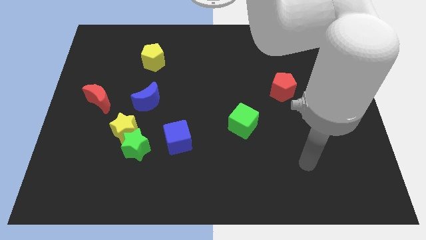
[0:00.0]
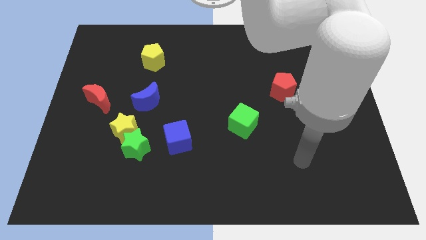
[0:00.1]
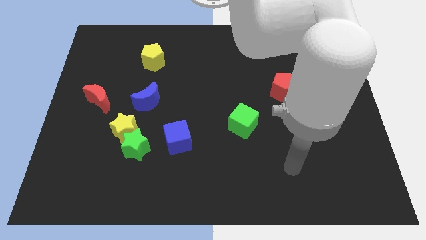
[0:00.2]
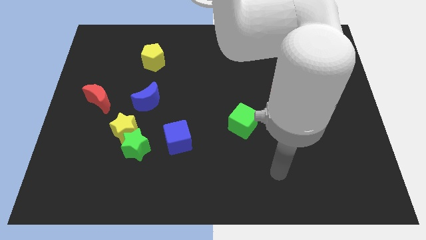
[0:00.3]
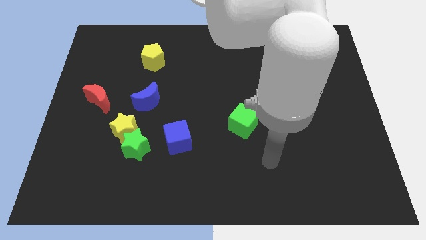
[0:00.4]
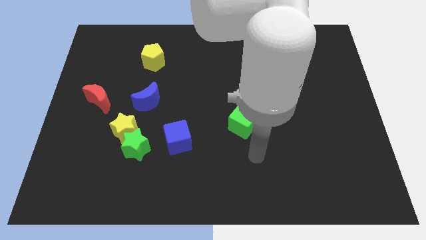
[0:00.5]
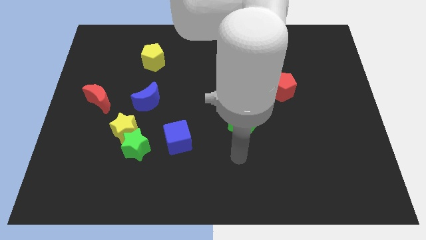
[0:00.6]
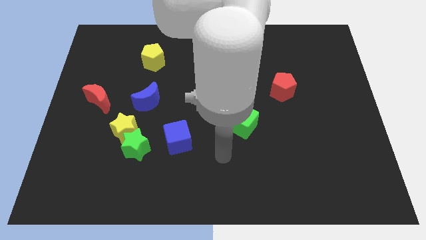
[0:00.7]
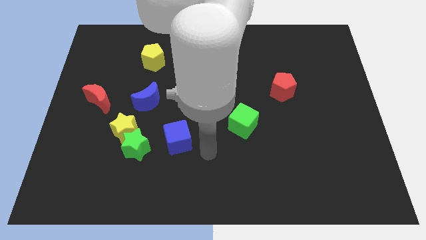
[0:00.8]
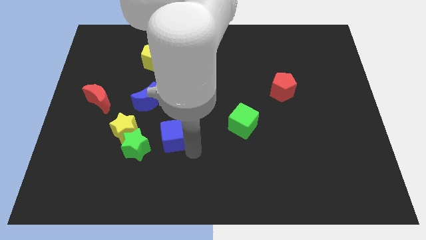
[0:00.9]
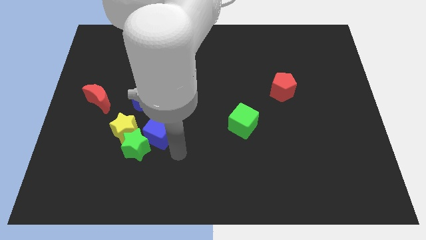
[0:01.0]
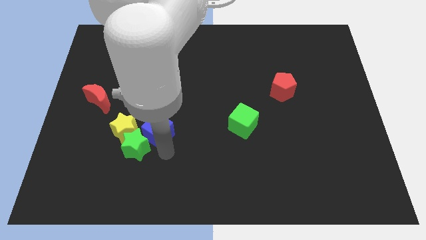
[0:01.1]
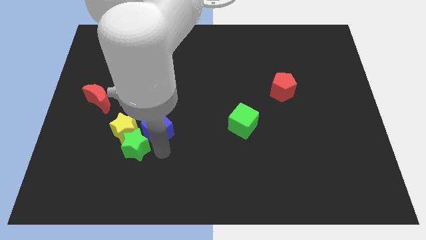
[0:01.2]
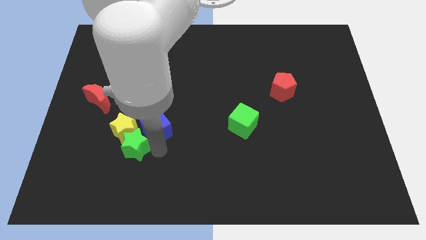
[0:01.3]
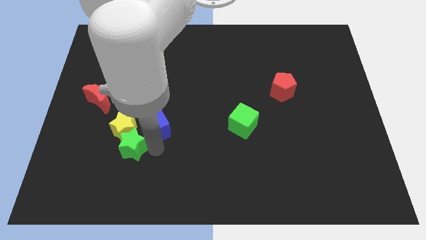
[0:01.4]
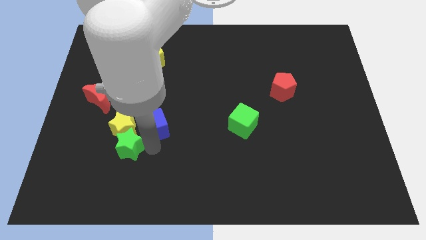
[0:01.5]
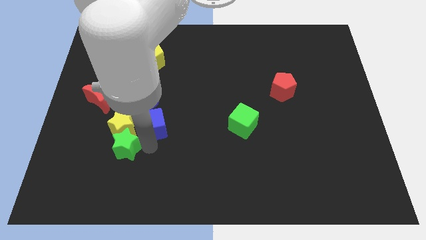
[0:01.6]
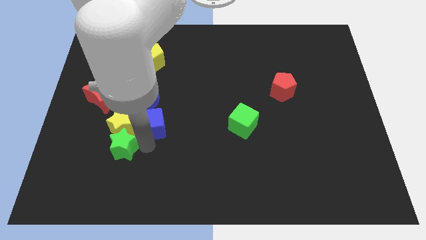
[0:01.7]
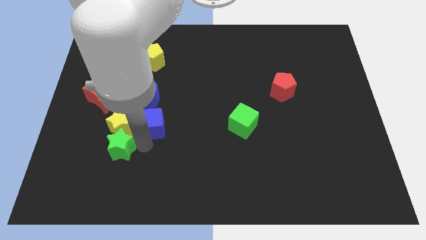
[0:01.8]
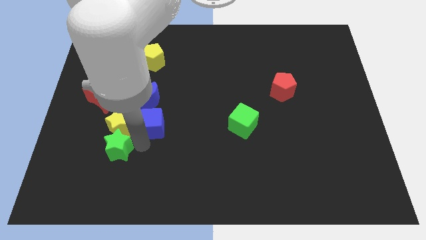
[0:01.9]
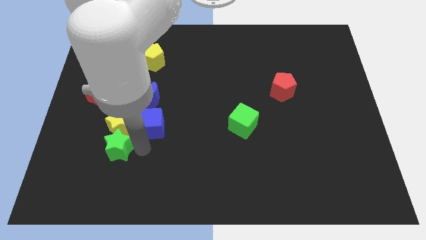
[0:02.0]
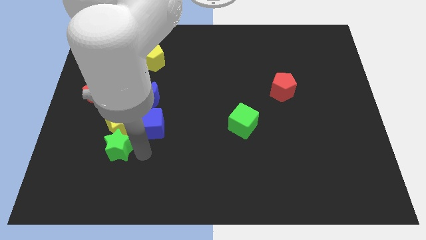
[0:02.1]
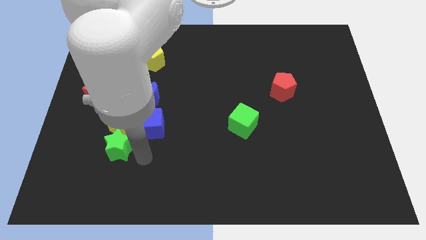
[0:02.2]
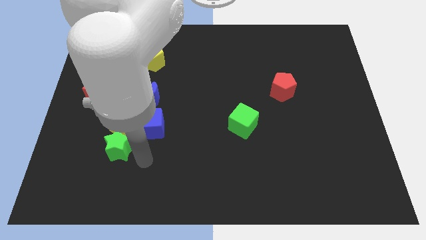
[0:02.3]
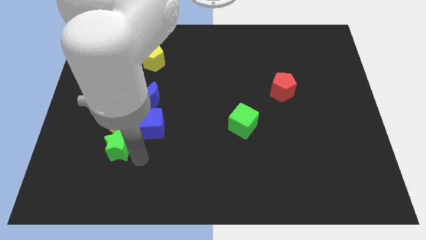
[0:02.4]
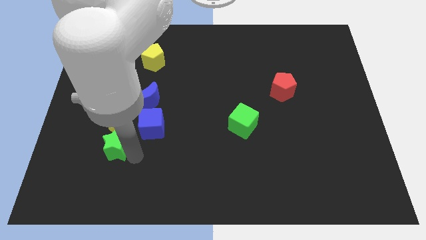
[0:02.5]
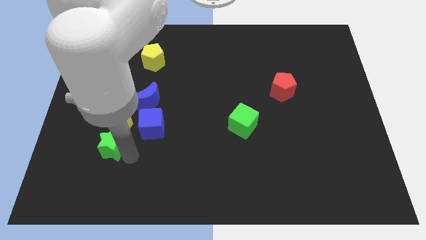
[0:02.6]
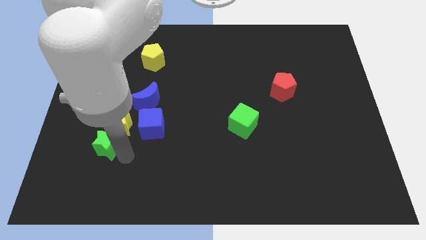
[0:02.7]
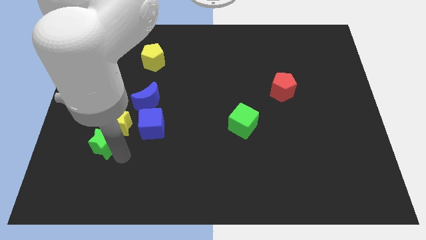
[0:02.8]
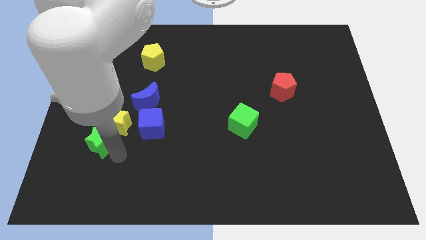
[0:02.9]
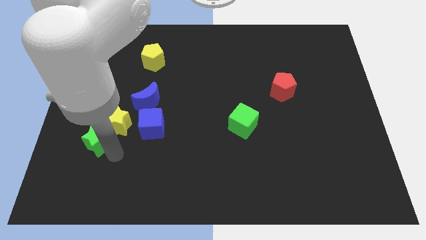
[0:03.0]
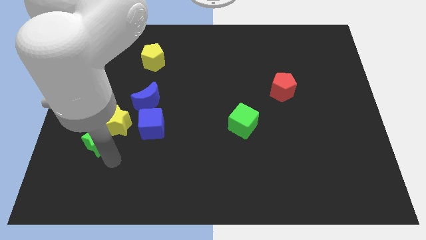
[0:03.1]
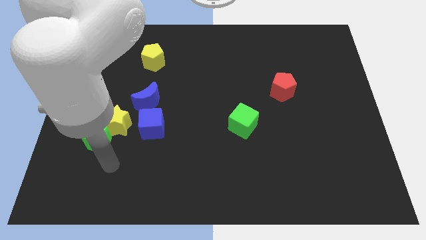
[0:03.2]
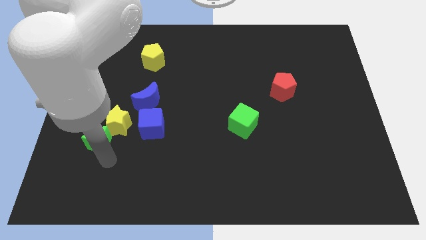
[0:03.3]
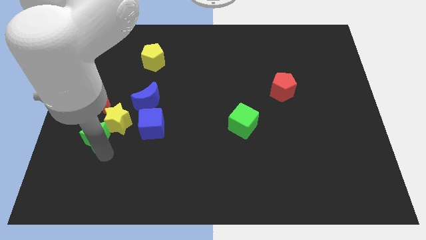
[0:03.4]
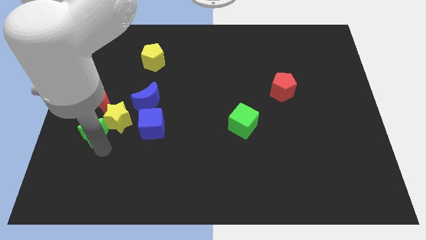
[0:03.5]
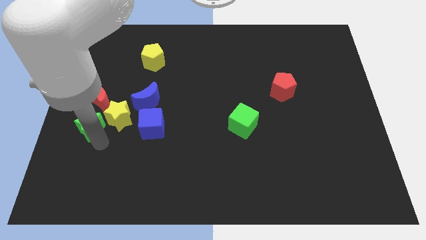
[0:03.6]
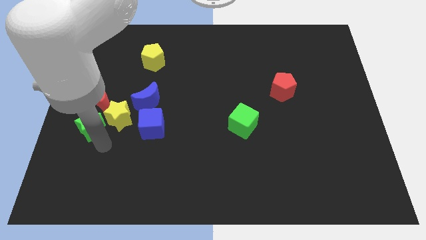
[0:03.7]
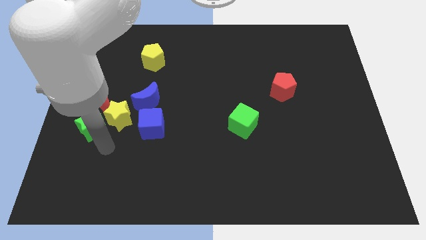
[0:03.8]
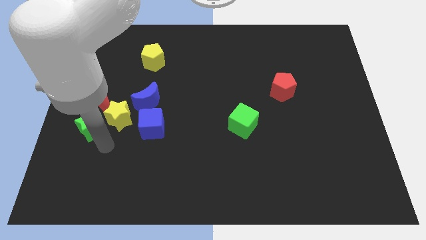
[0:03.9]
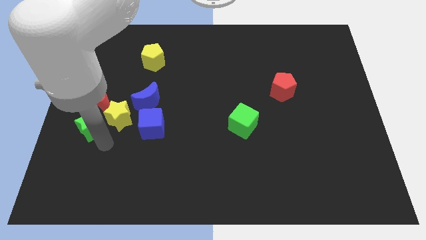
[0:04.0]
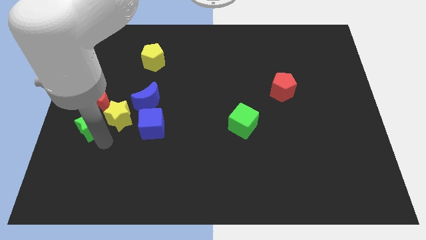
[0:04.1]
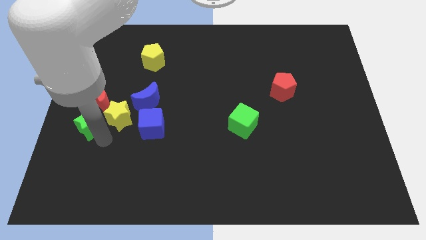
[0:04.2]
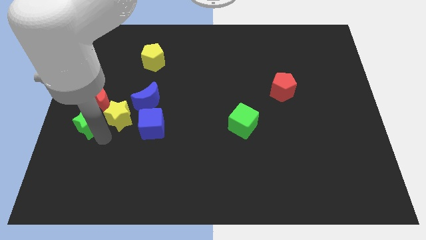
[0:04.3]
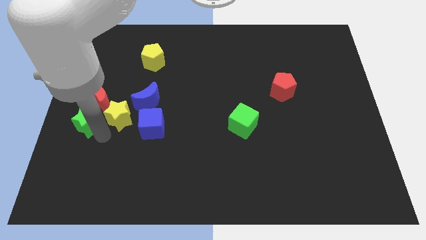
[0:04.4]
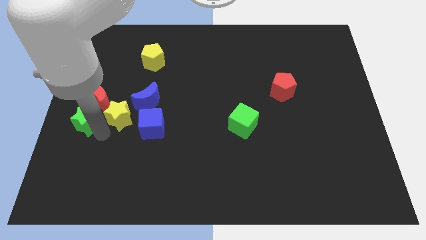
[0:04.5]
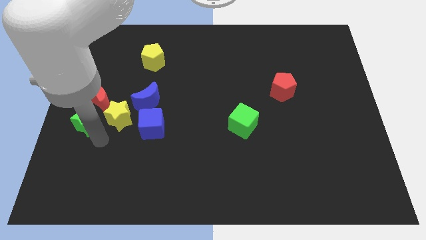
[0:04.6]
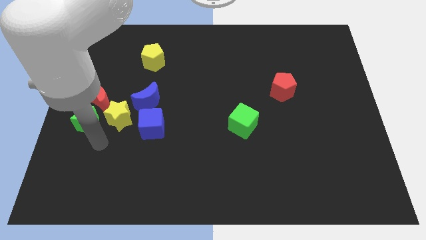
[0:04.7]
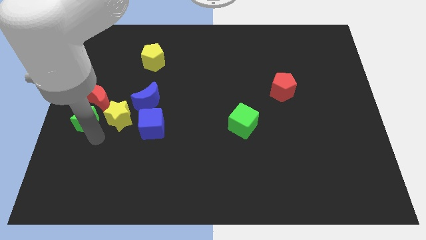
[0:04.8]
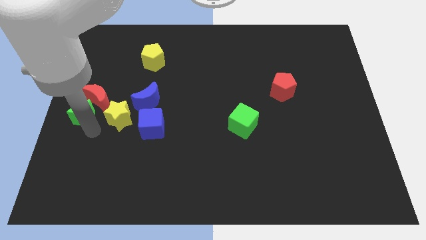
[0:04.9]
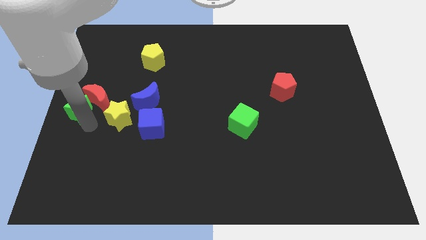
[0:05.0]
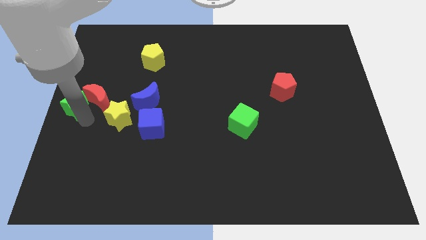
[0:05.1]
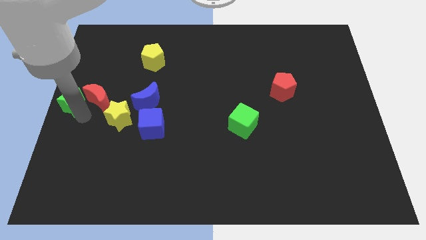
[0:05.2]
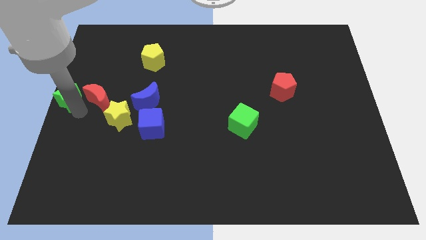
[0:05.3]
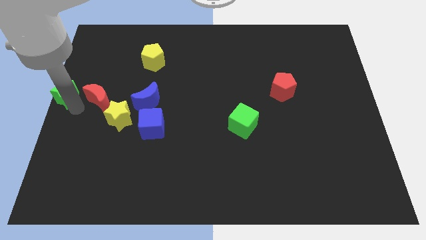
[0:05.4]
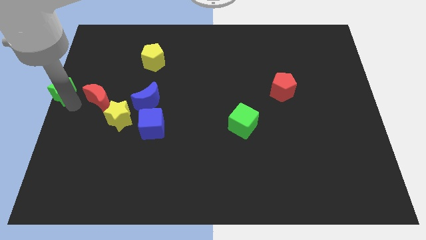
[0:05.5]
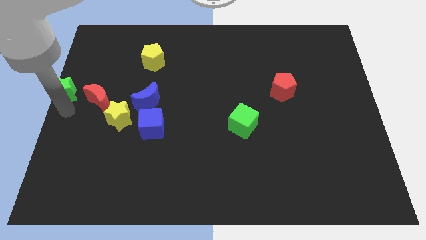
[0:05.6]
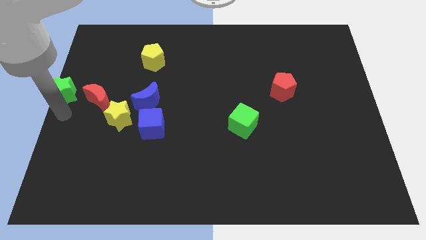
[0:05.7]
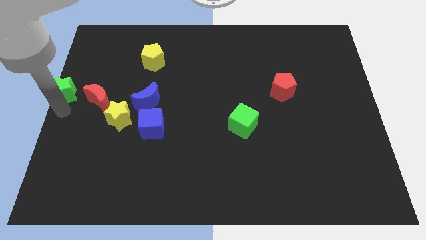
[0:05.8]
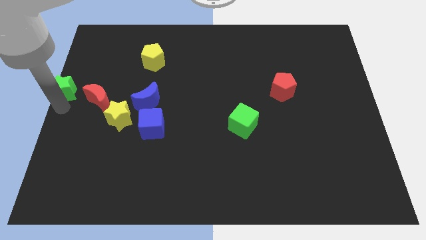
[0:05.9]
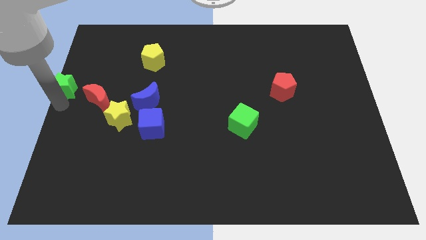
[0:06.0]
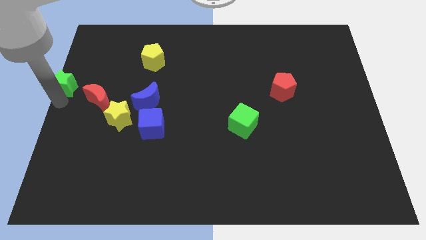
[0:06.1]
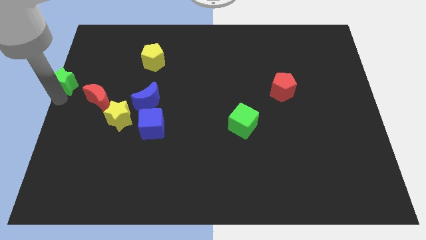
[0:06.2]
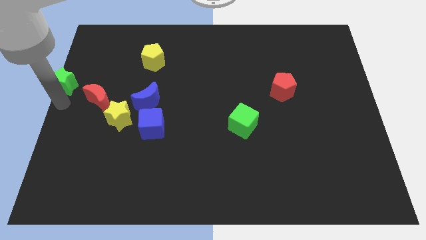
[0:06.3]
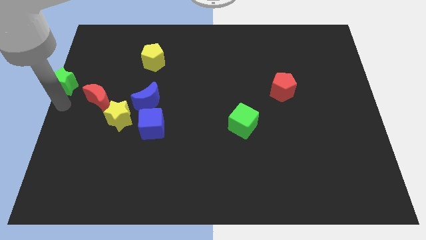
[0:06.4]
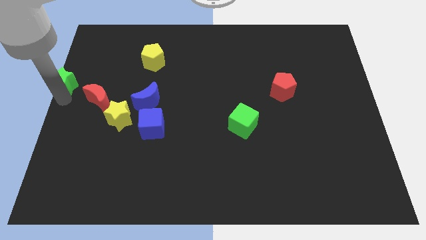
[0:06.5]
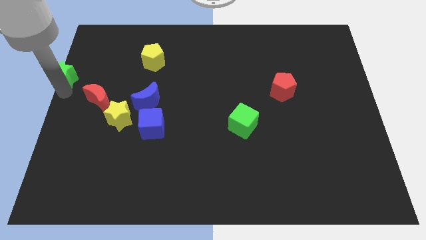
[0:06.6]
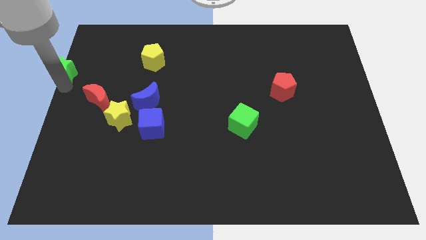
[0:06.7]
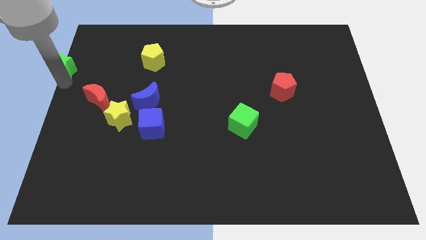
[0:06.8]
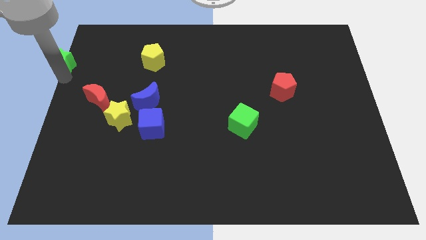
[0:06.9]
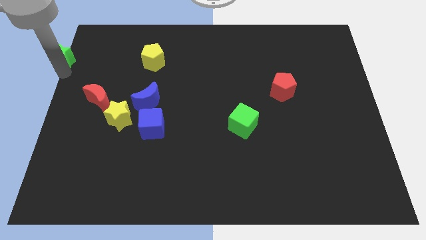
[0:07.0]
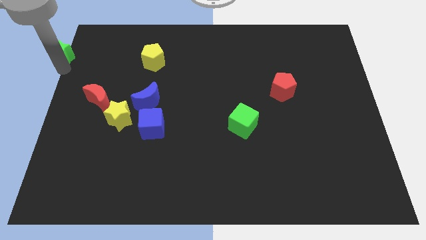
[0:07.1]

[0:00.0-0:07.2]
slide the green star to the top left corner
